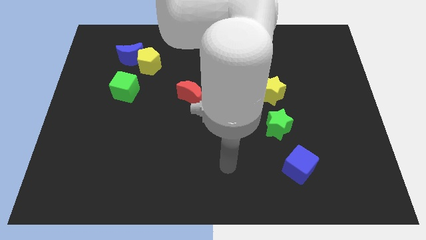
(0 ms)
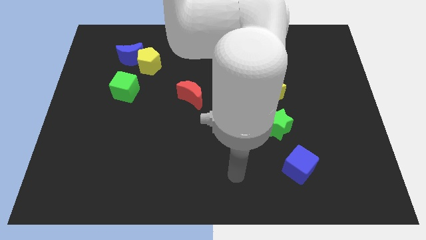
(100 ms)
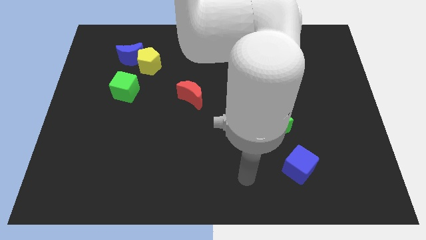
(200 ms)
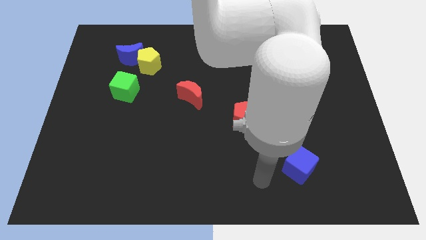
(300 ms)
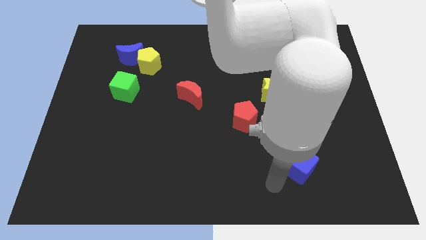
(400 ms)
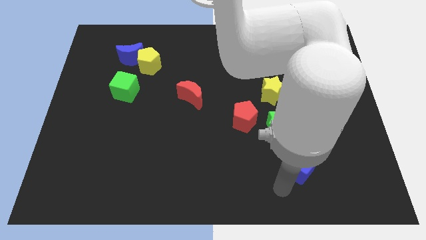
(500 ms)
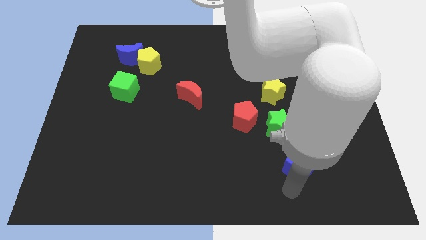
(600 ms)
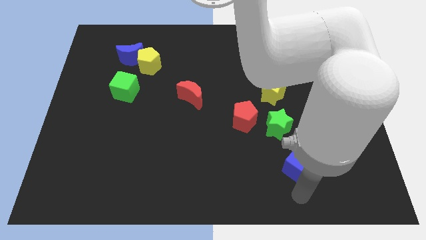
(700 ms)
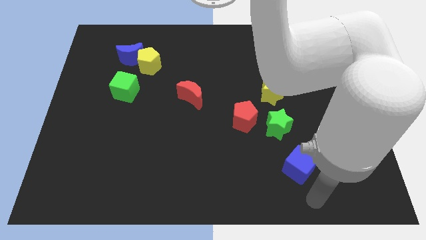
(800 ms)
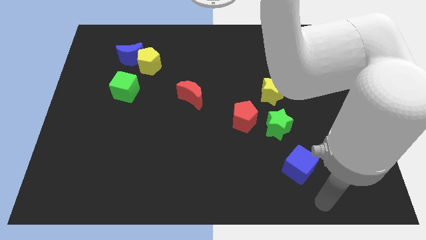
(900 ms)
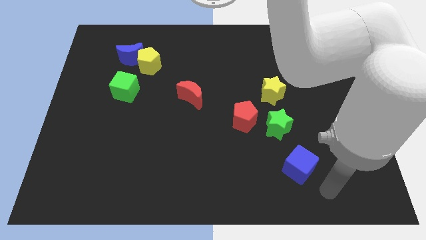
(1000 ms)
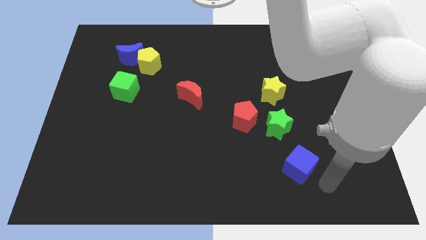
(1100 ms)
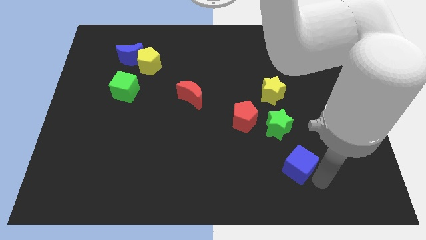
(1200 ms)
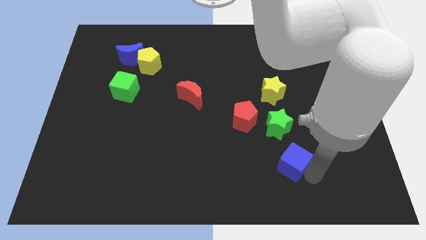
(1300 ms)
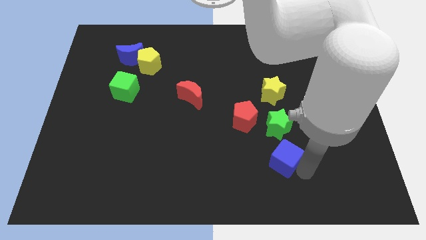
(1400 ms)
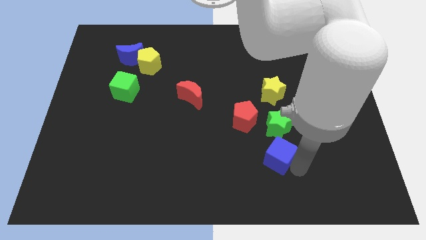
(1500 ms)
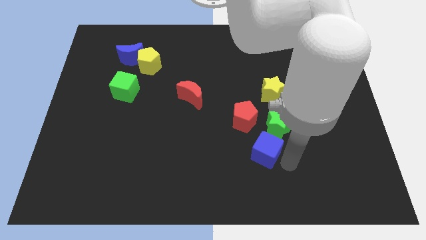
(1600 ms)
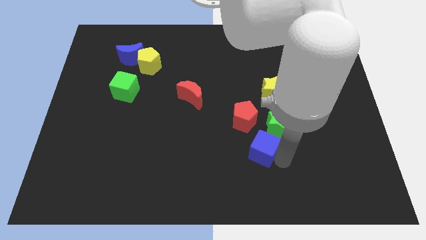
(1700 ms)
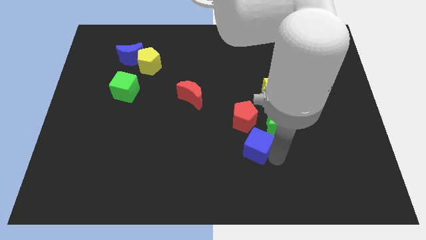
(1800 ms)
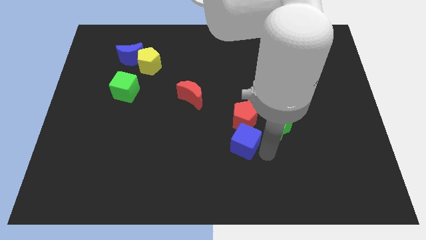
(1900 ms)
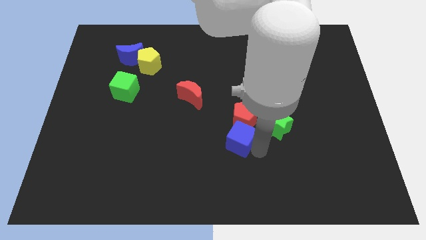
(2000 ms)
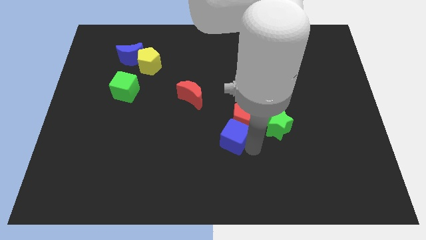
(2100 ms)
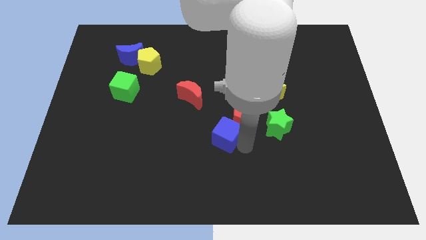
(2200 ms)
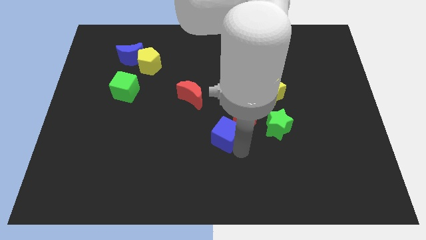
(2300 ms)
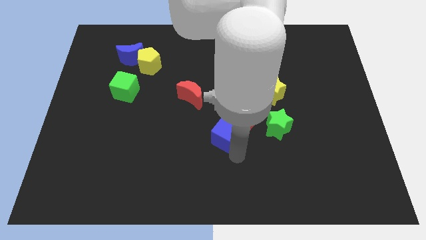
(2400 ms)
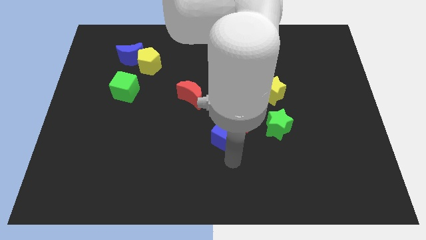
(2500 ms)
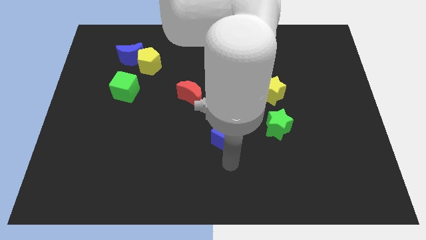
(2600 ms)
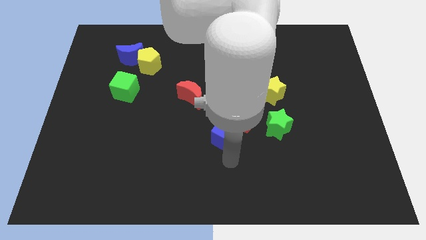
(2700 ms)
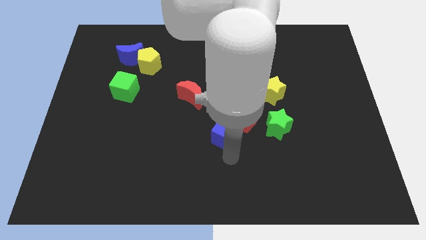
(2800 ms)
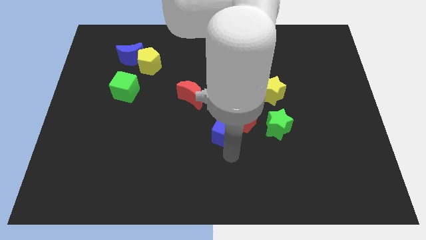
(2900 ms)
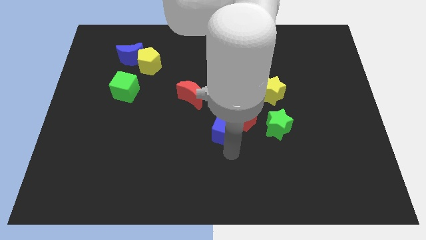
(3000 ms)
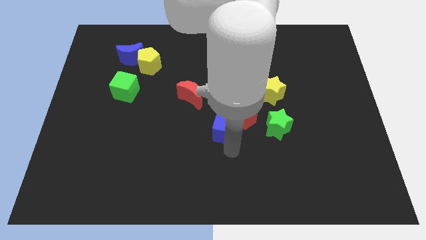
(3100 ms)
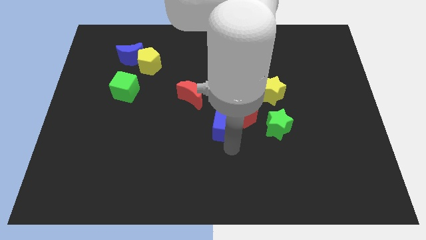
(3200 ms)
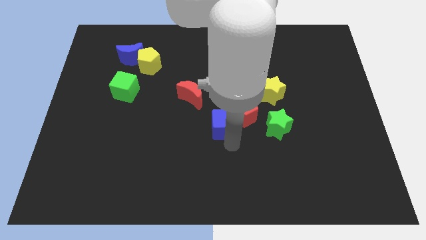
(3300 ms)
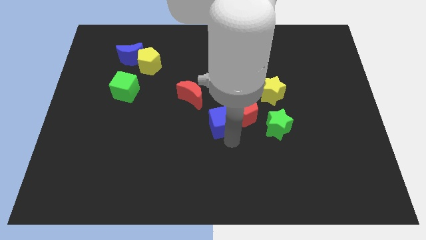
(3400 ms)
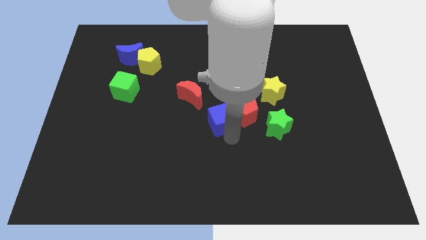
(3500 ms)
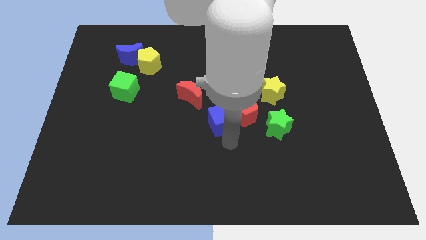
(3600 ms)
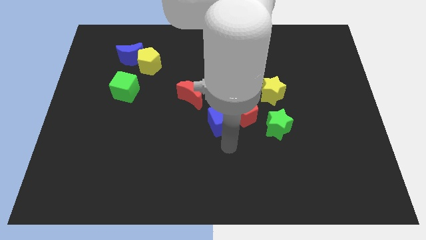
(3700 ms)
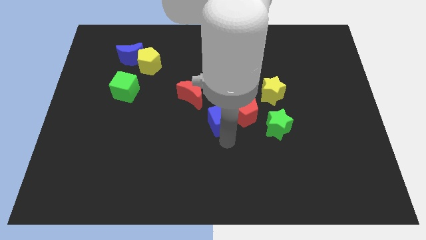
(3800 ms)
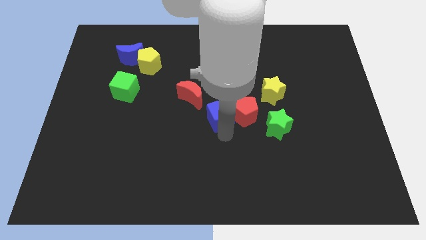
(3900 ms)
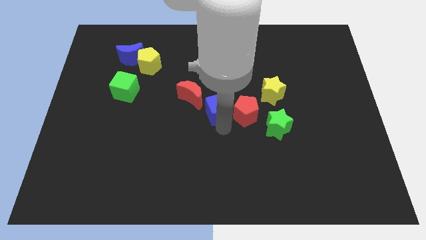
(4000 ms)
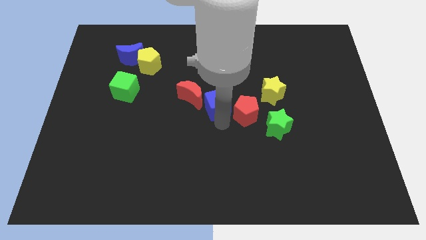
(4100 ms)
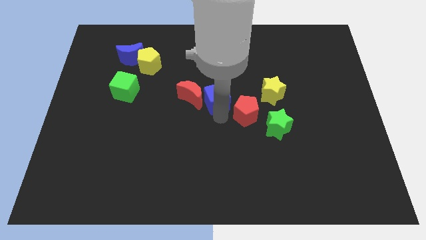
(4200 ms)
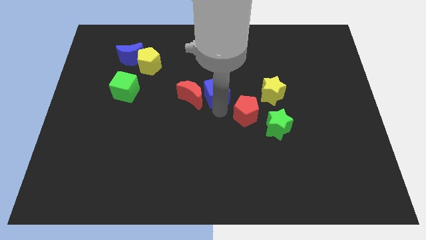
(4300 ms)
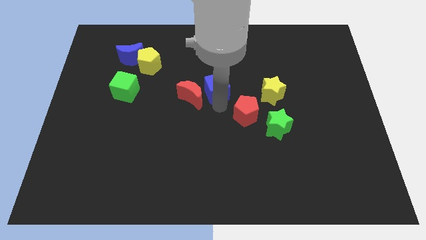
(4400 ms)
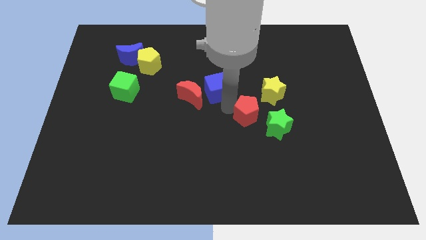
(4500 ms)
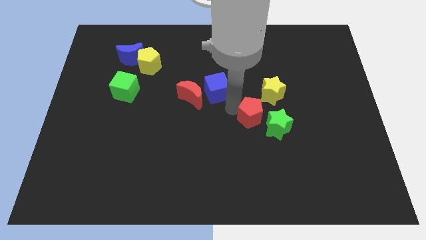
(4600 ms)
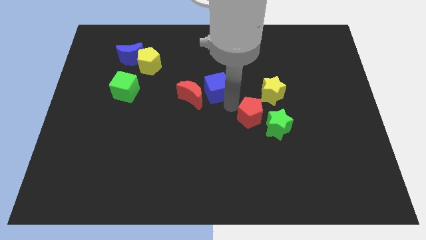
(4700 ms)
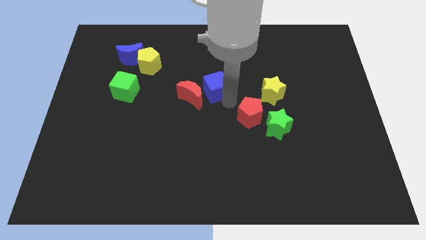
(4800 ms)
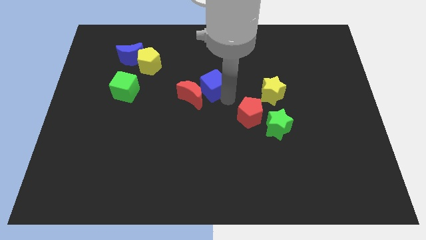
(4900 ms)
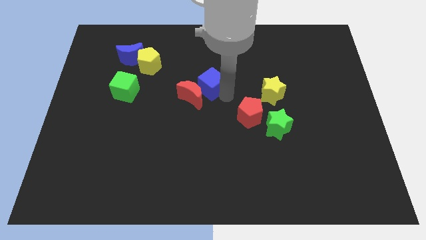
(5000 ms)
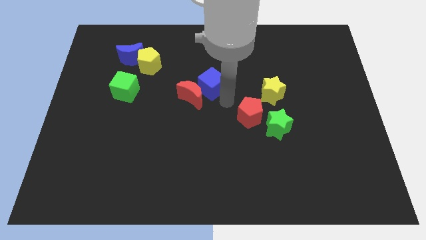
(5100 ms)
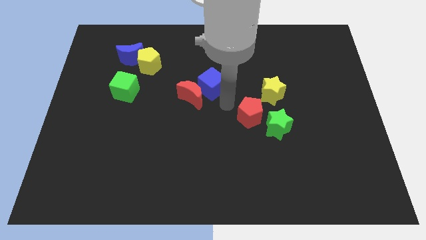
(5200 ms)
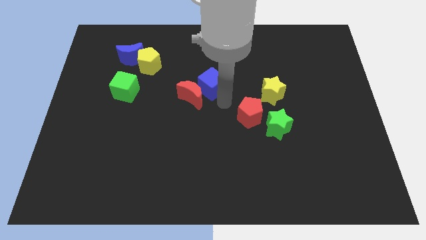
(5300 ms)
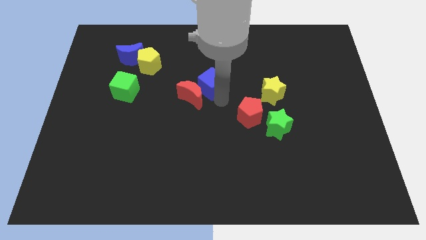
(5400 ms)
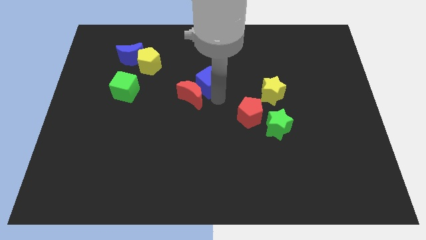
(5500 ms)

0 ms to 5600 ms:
push the blue cube to the top of the red moon

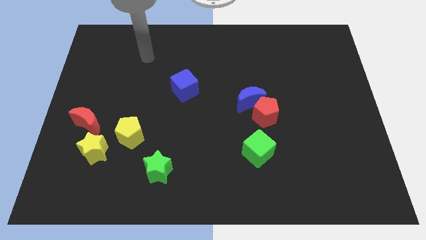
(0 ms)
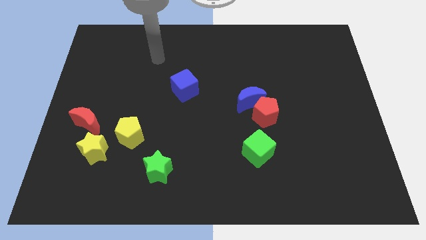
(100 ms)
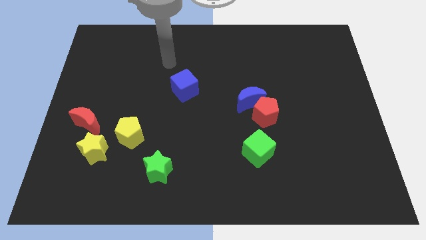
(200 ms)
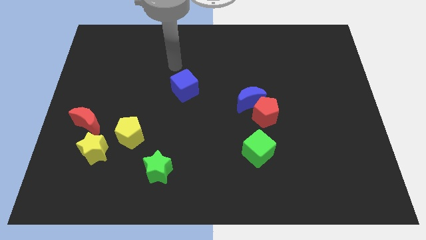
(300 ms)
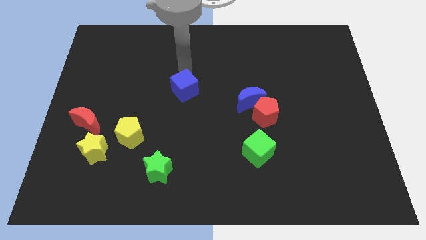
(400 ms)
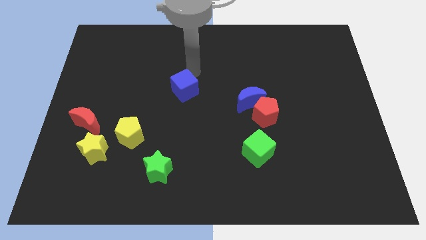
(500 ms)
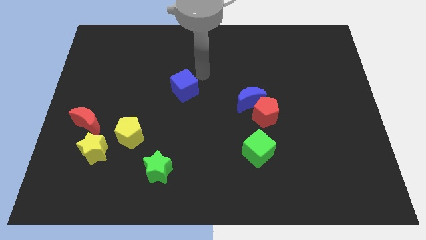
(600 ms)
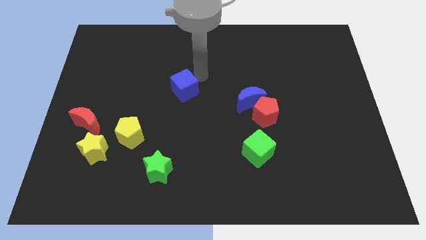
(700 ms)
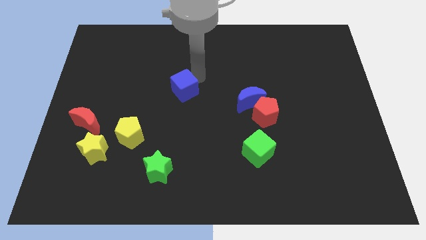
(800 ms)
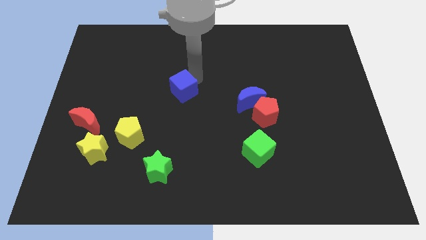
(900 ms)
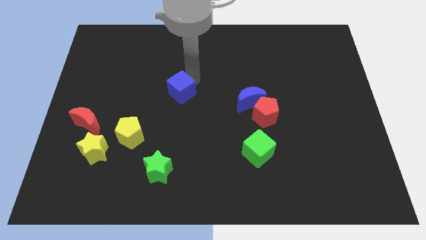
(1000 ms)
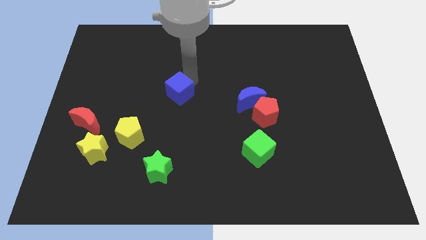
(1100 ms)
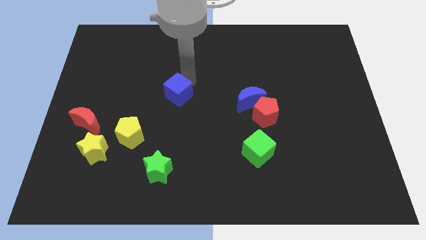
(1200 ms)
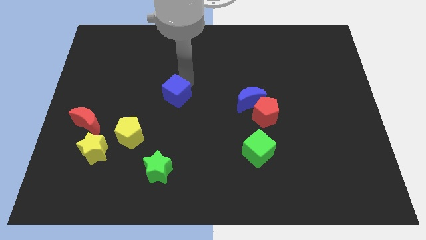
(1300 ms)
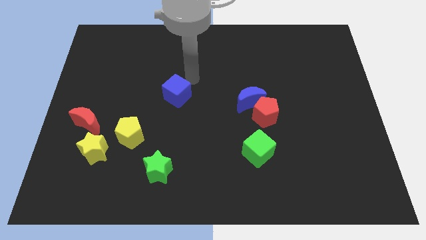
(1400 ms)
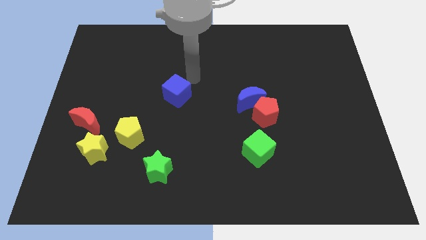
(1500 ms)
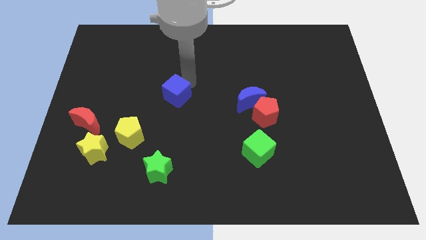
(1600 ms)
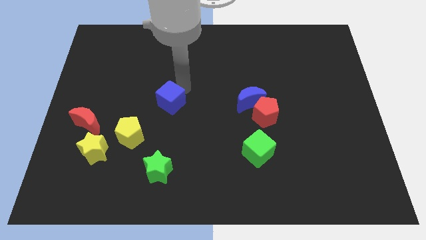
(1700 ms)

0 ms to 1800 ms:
put the blue cube to the top right of the yellow pentagon
